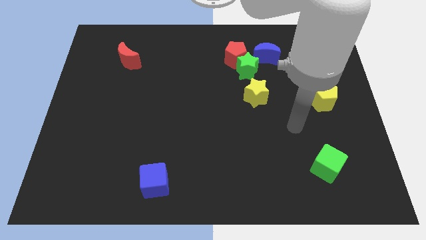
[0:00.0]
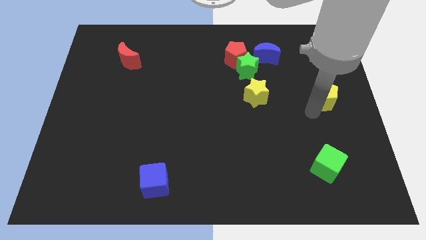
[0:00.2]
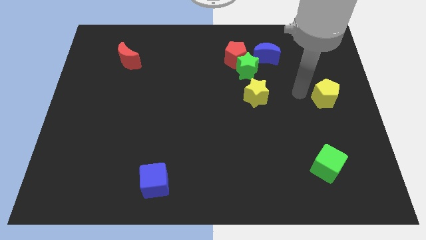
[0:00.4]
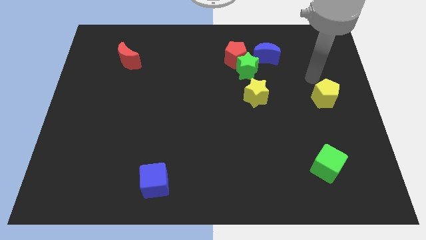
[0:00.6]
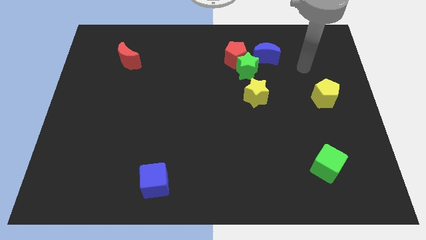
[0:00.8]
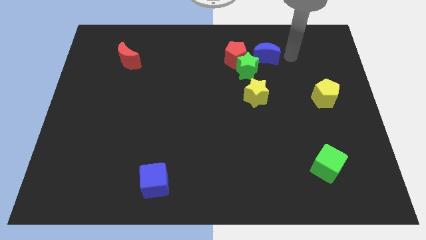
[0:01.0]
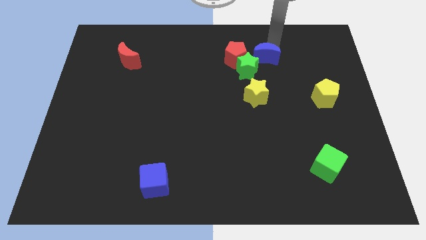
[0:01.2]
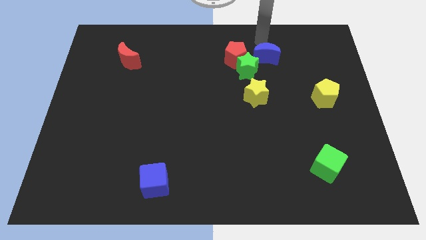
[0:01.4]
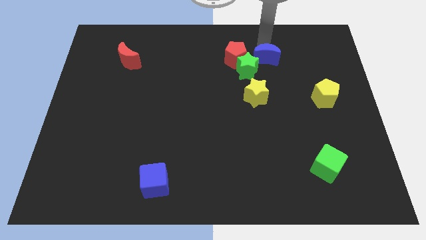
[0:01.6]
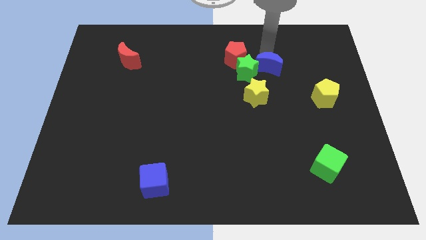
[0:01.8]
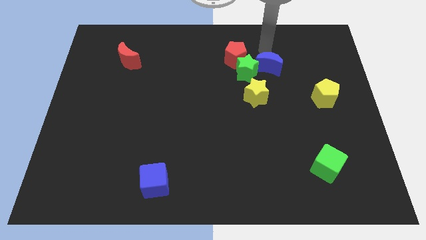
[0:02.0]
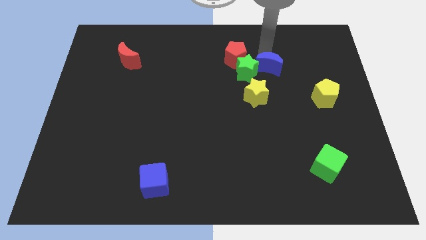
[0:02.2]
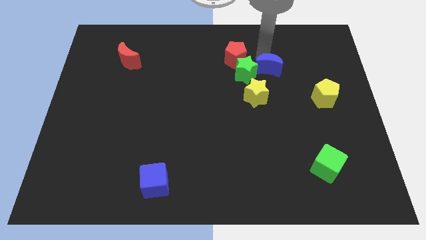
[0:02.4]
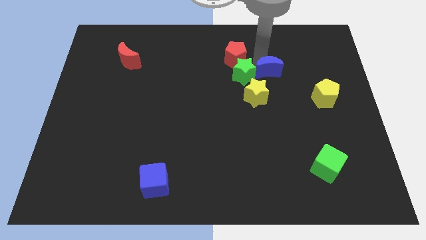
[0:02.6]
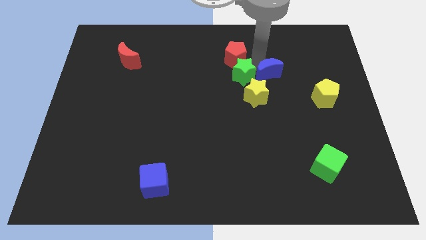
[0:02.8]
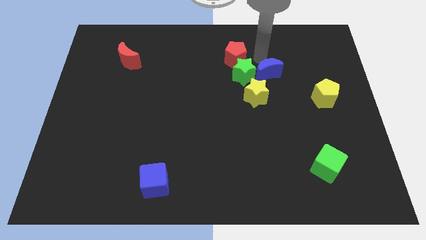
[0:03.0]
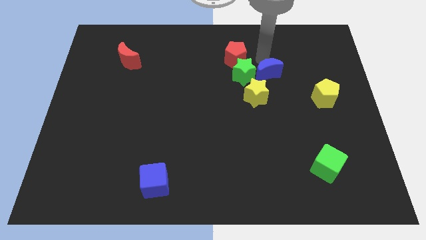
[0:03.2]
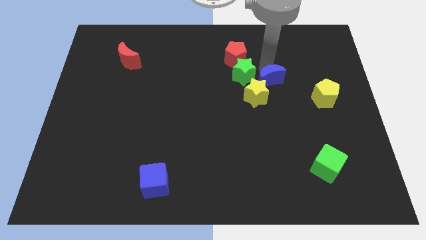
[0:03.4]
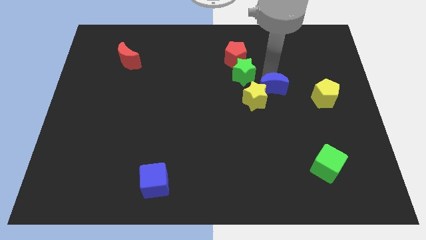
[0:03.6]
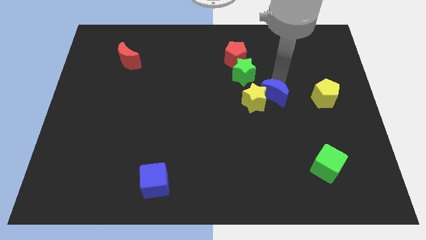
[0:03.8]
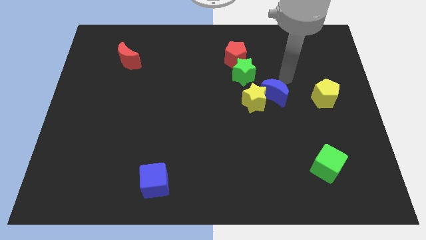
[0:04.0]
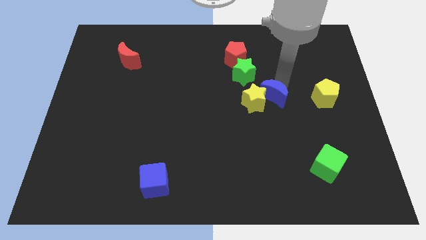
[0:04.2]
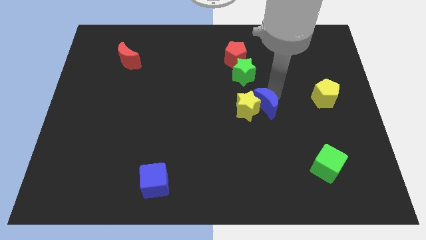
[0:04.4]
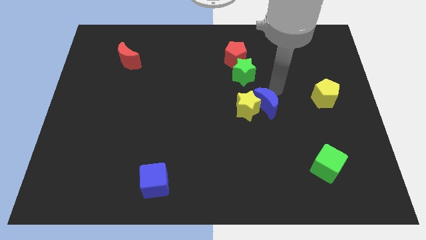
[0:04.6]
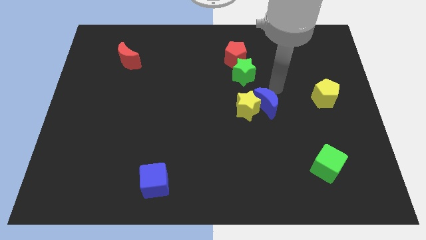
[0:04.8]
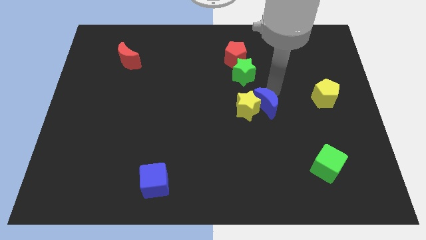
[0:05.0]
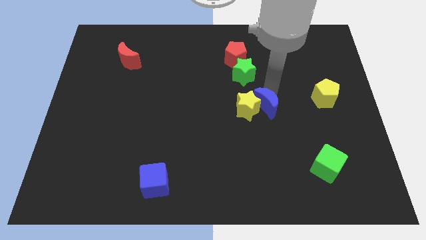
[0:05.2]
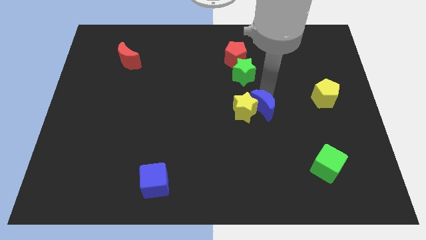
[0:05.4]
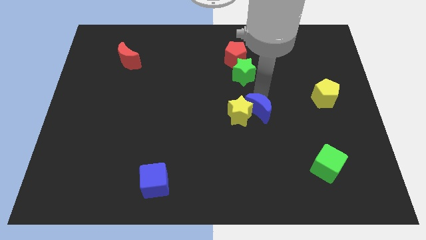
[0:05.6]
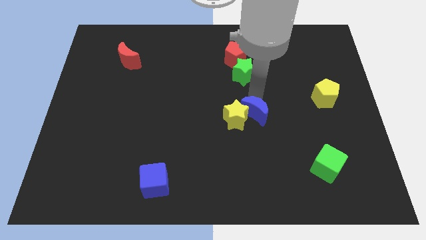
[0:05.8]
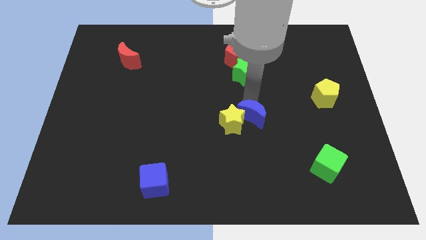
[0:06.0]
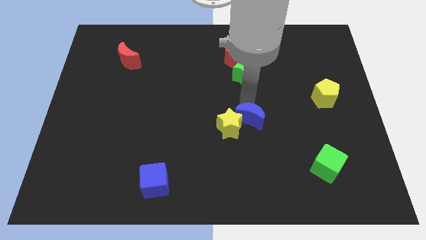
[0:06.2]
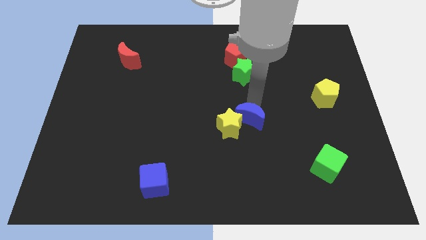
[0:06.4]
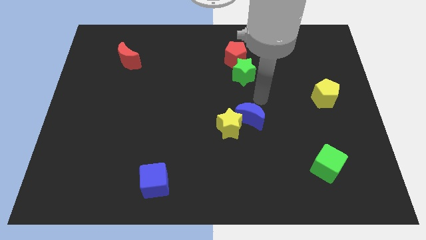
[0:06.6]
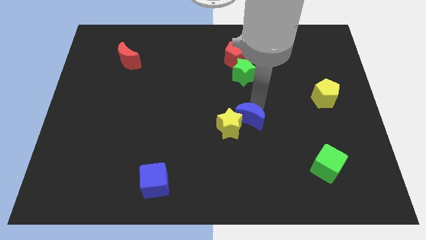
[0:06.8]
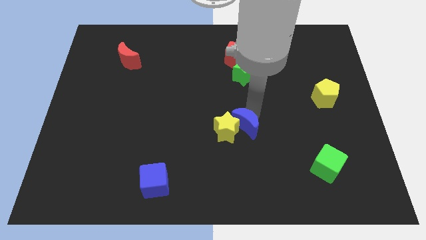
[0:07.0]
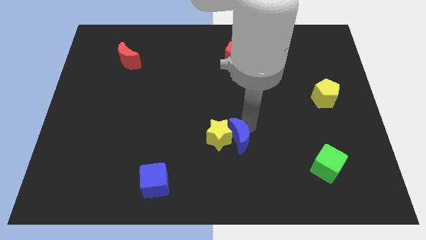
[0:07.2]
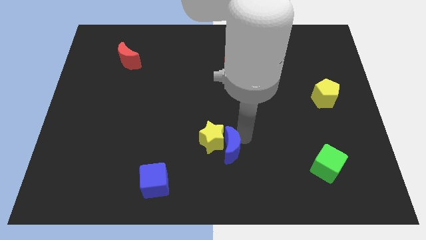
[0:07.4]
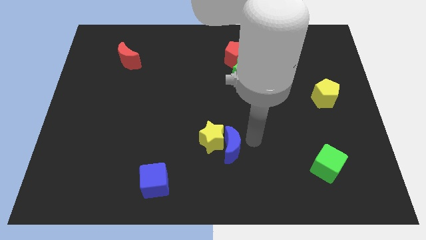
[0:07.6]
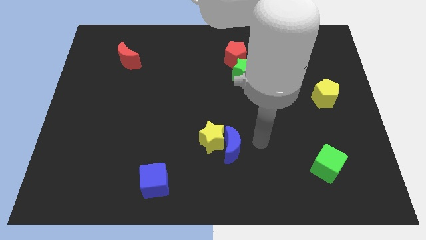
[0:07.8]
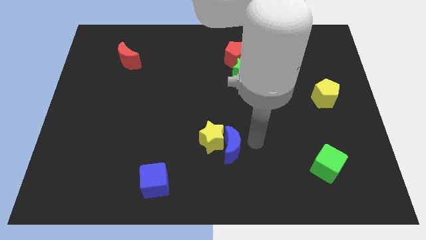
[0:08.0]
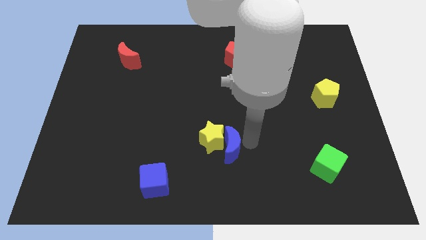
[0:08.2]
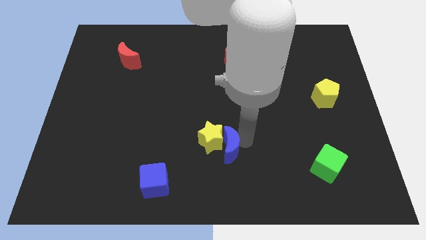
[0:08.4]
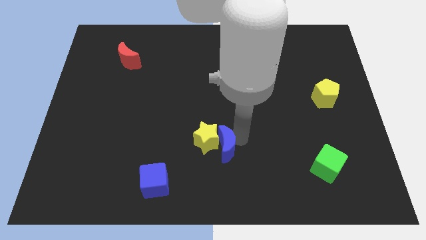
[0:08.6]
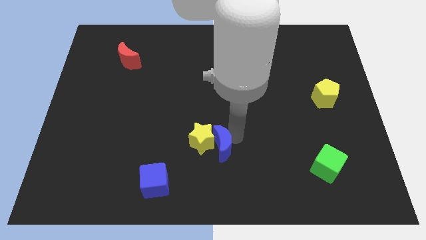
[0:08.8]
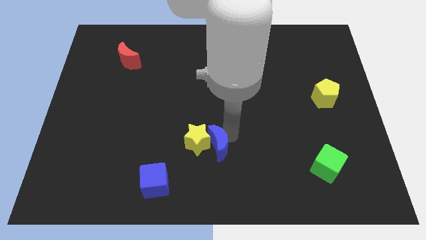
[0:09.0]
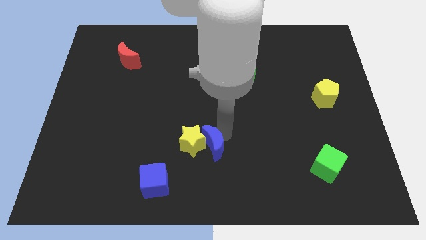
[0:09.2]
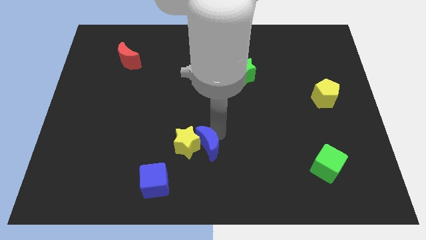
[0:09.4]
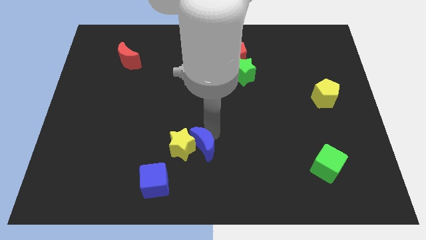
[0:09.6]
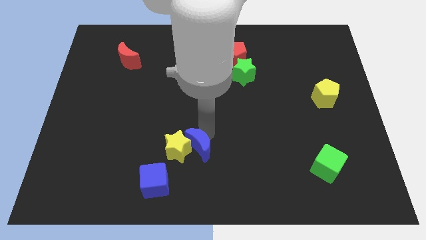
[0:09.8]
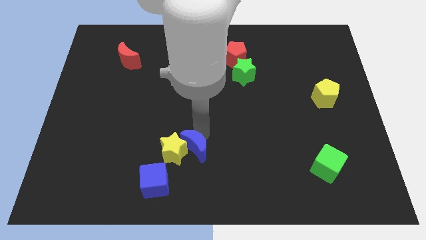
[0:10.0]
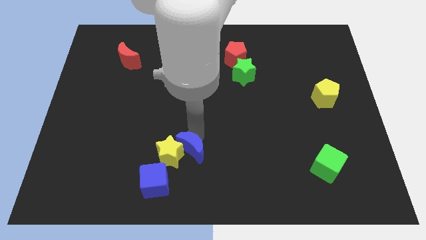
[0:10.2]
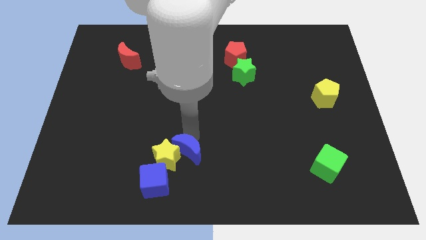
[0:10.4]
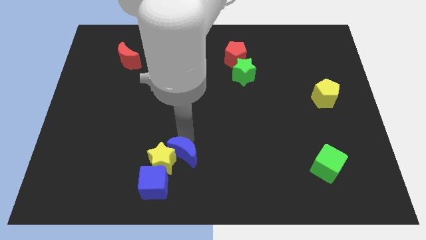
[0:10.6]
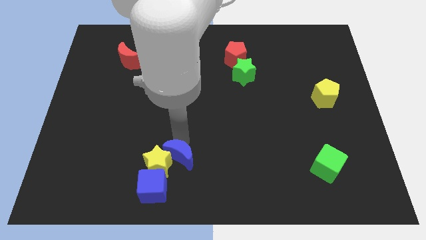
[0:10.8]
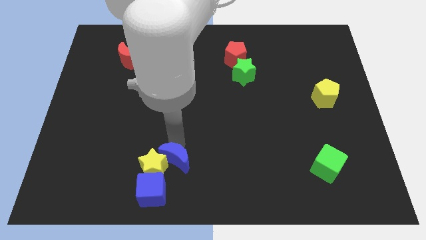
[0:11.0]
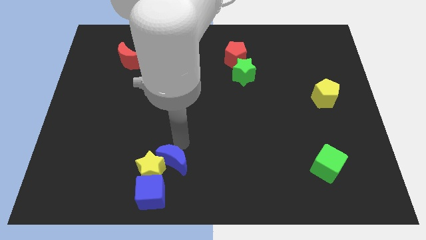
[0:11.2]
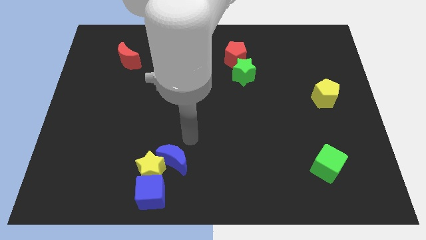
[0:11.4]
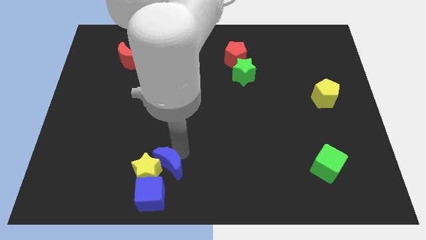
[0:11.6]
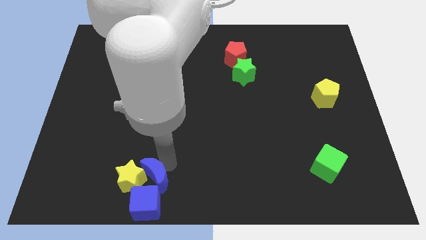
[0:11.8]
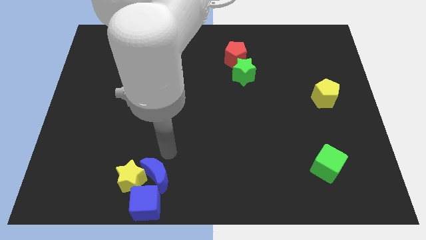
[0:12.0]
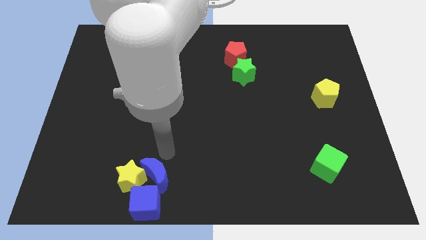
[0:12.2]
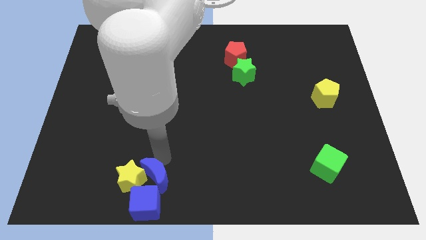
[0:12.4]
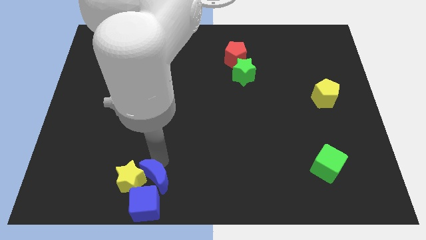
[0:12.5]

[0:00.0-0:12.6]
slide the blue moon towards the blue cube
